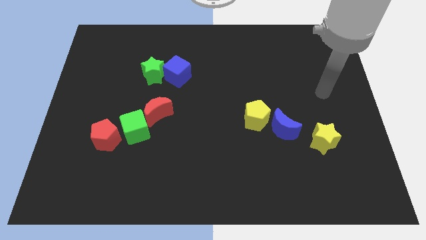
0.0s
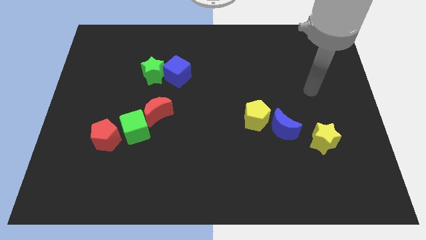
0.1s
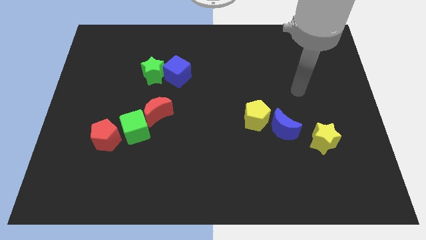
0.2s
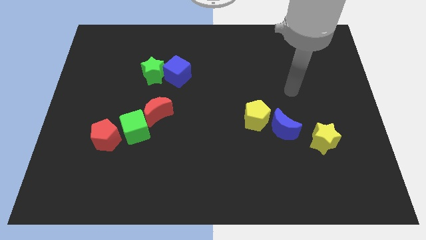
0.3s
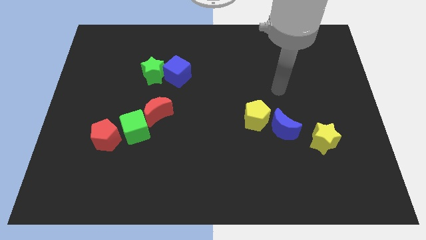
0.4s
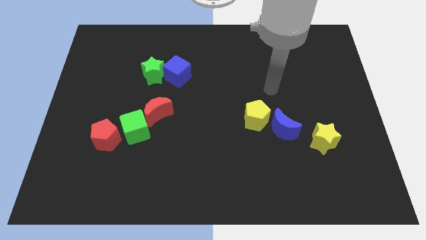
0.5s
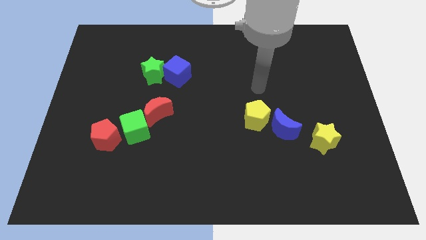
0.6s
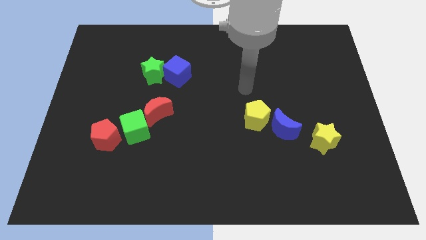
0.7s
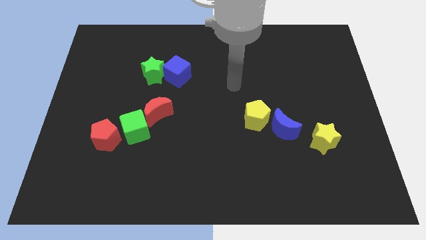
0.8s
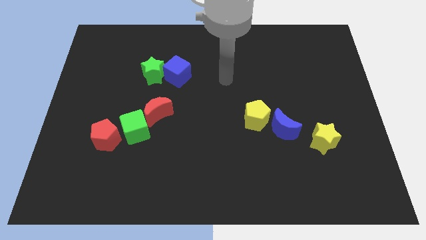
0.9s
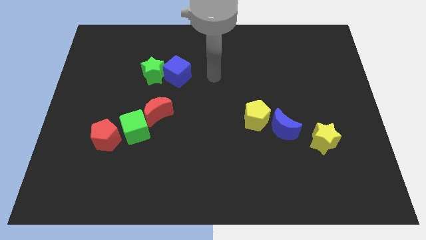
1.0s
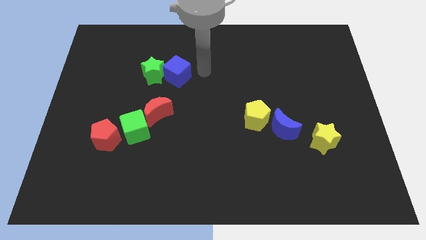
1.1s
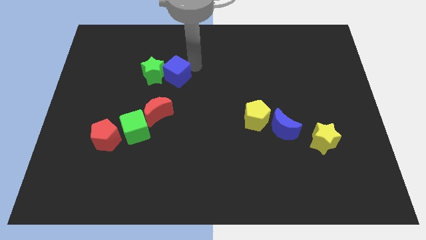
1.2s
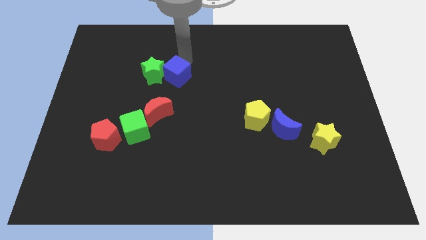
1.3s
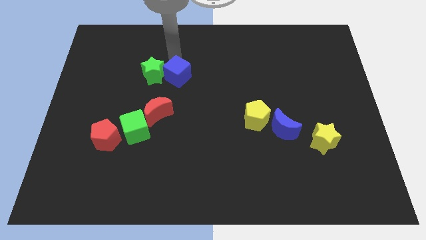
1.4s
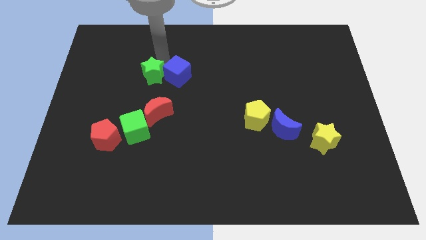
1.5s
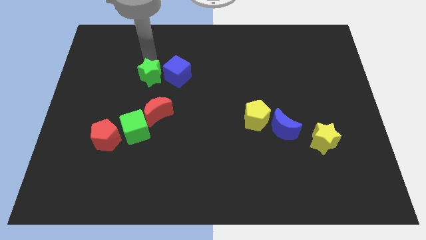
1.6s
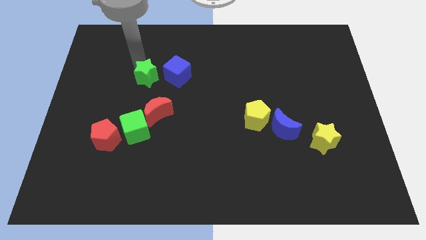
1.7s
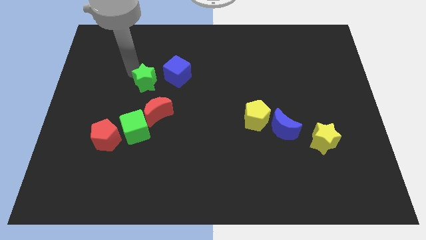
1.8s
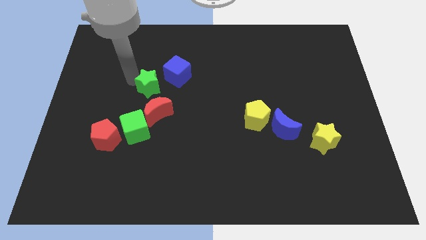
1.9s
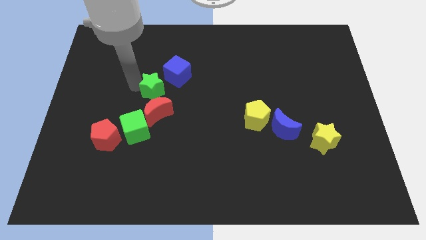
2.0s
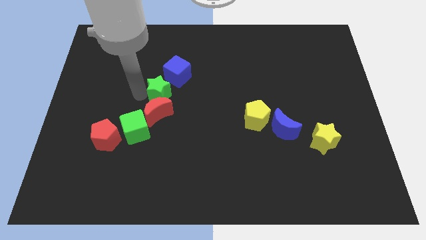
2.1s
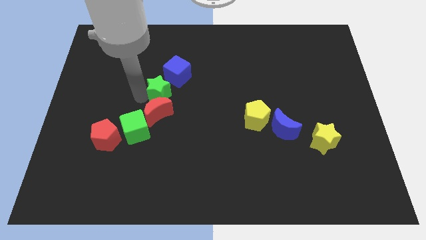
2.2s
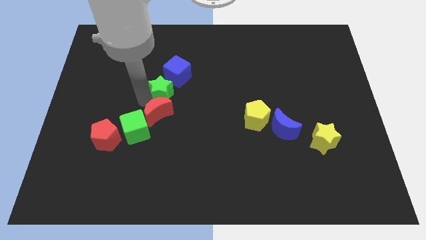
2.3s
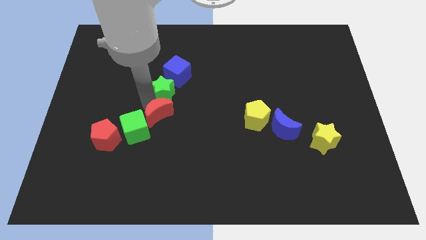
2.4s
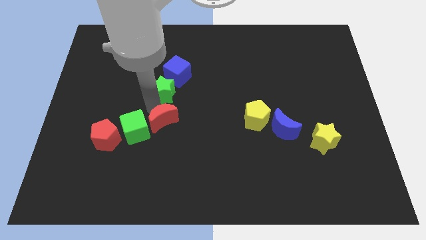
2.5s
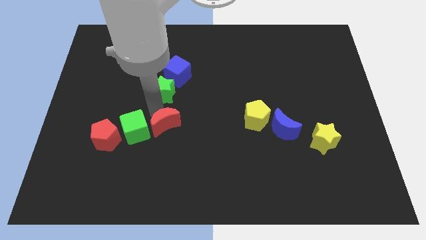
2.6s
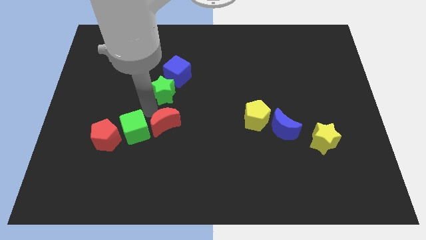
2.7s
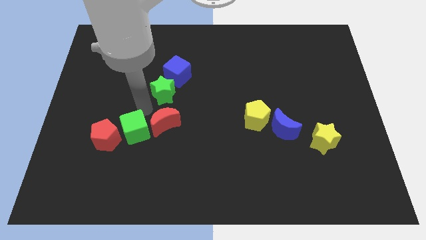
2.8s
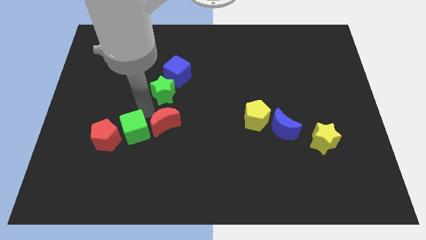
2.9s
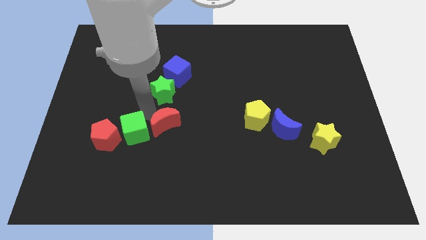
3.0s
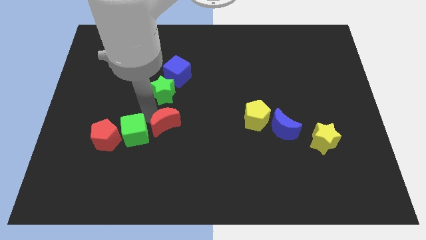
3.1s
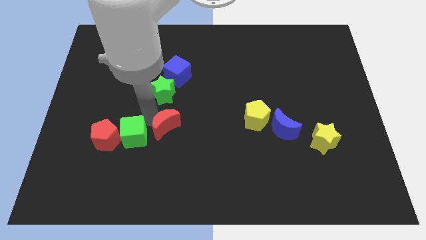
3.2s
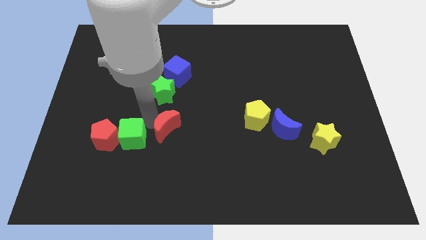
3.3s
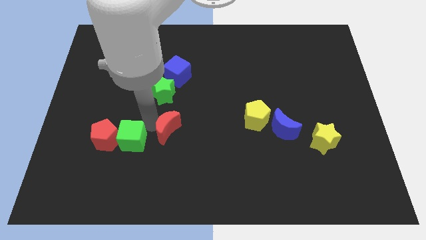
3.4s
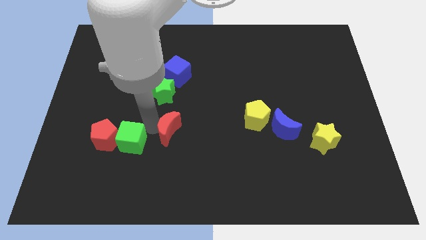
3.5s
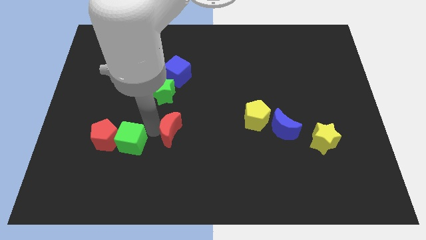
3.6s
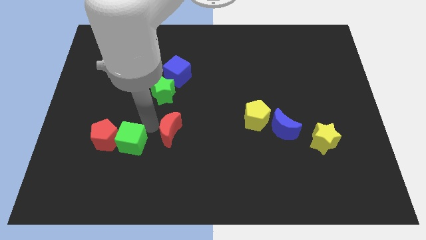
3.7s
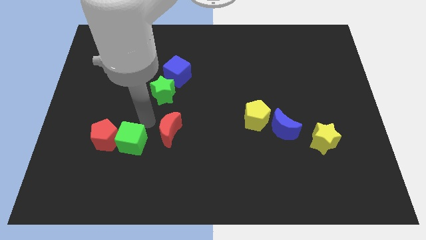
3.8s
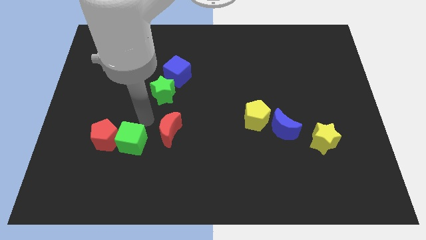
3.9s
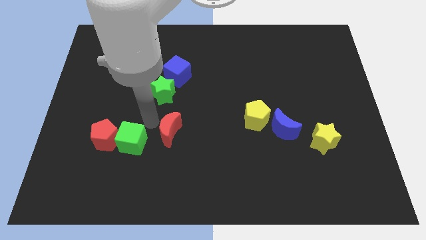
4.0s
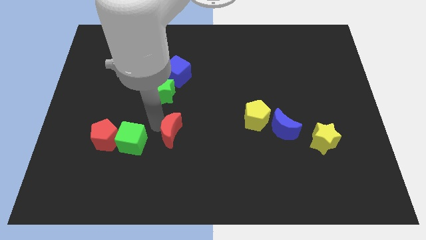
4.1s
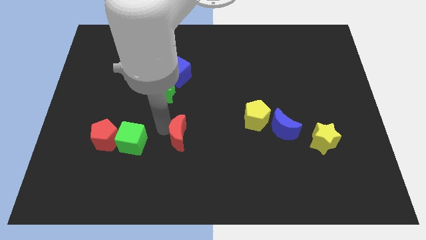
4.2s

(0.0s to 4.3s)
slide the red moon a little bit diagonally downwards and right

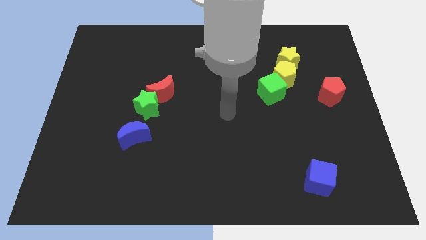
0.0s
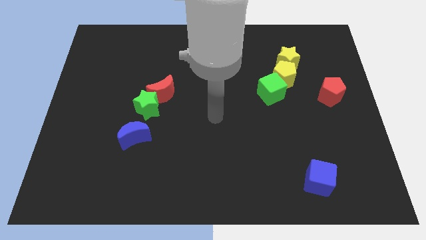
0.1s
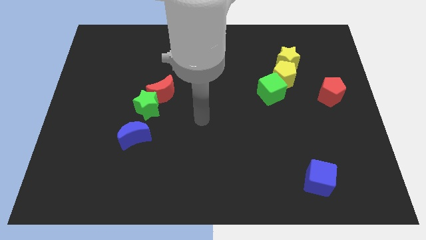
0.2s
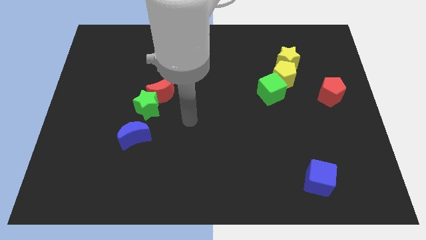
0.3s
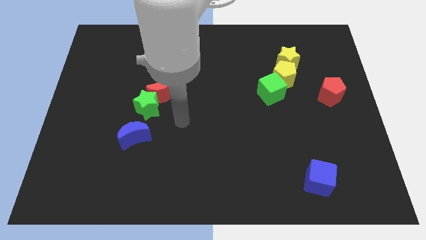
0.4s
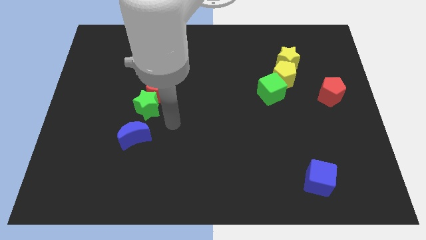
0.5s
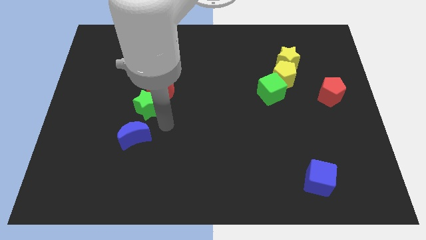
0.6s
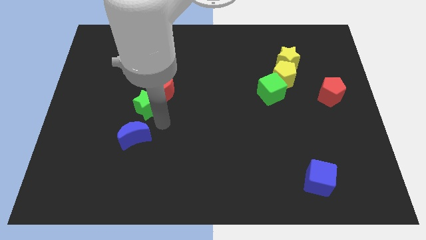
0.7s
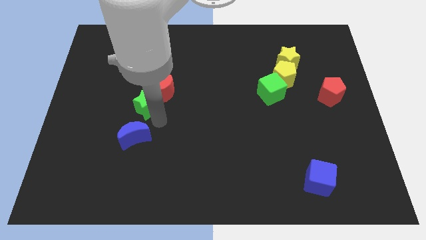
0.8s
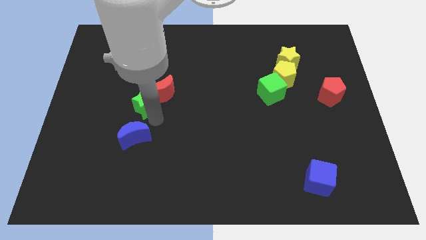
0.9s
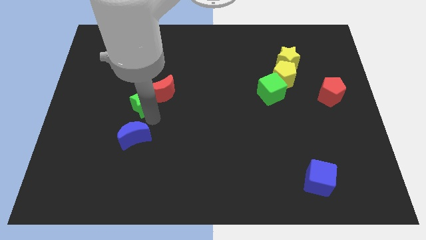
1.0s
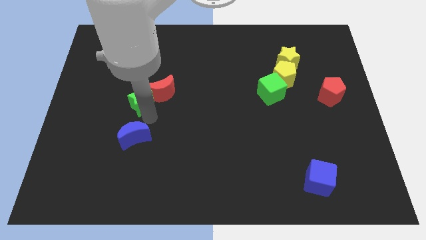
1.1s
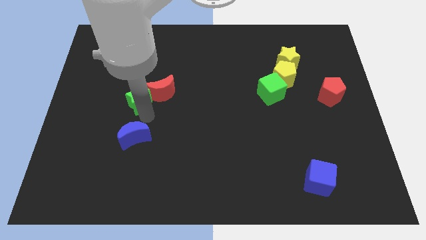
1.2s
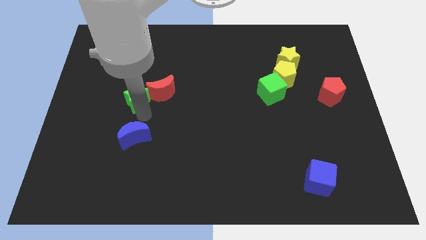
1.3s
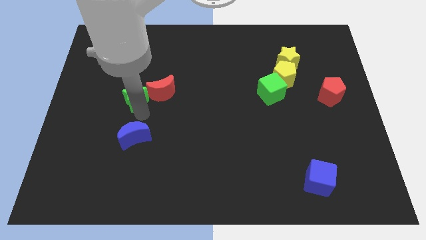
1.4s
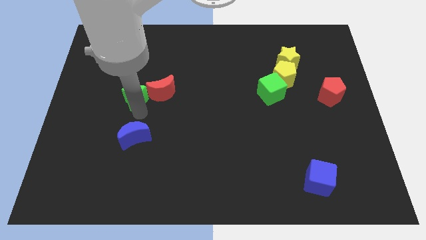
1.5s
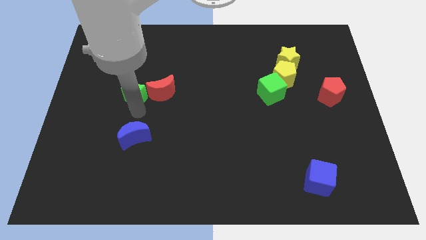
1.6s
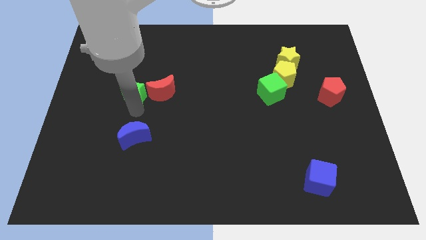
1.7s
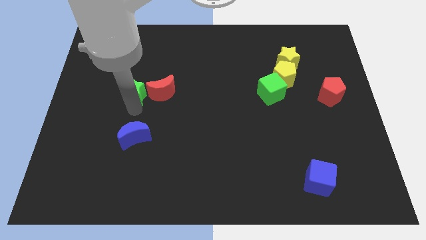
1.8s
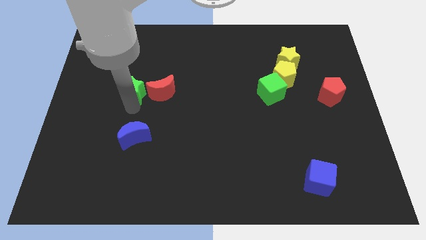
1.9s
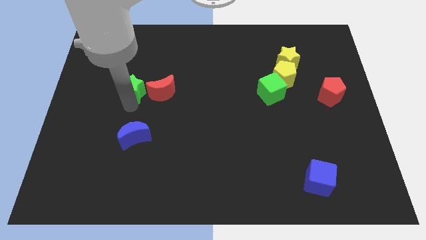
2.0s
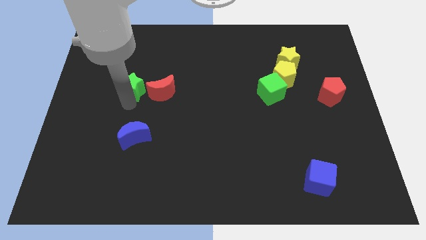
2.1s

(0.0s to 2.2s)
slightly move the green star upwards and left diagonally

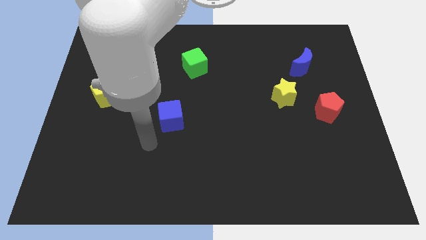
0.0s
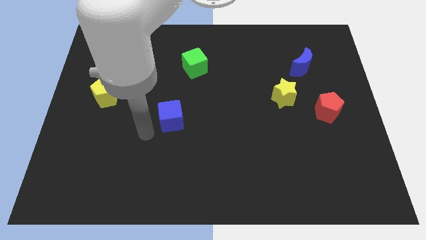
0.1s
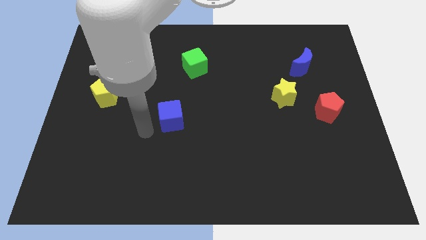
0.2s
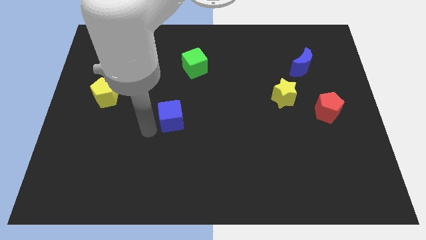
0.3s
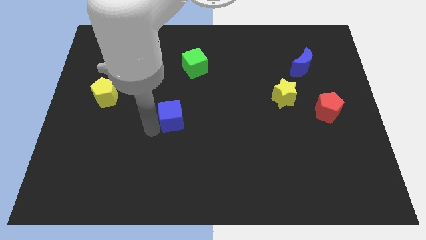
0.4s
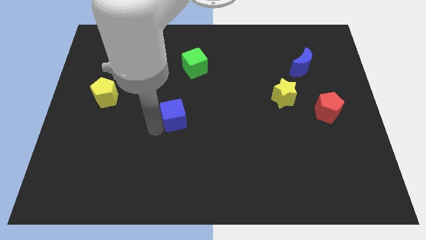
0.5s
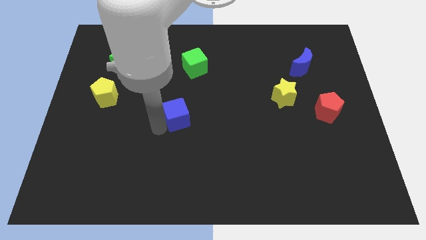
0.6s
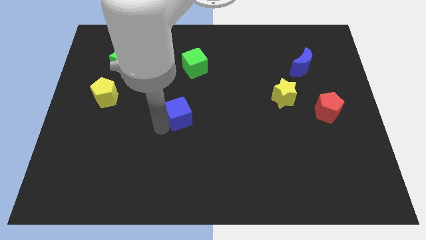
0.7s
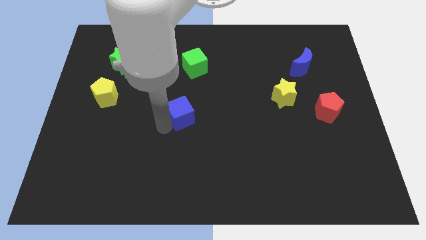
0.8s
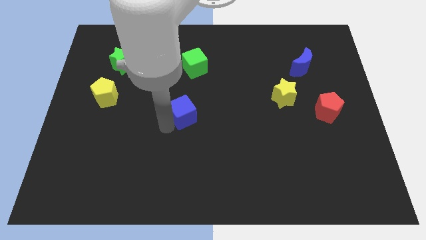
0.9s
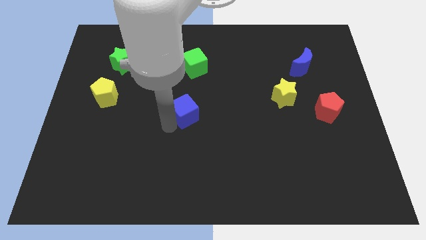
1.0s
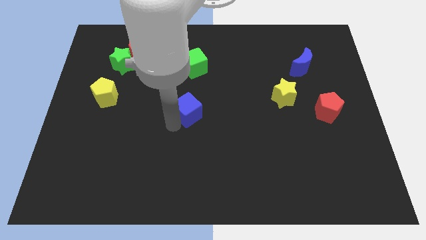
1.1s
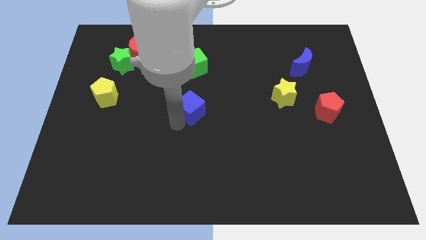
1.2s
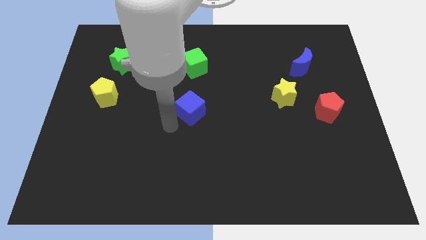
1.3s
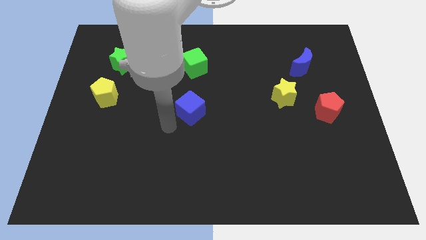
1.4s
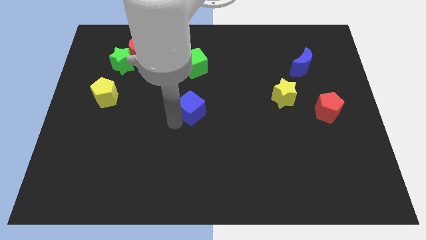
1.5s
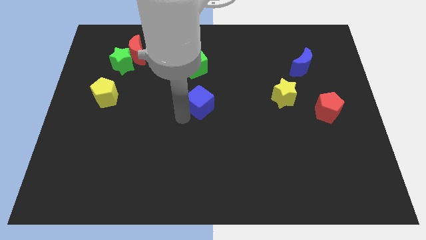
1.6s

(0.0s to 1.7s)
slightly move the blue cube up and to the right diagonally
